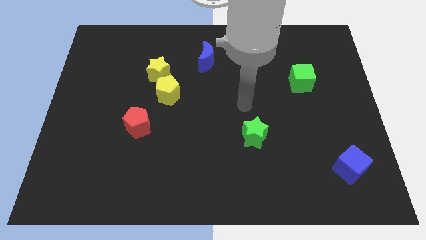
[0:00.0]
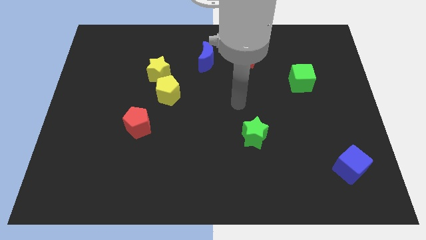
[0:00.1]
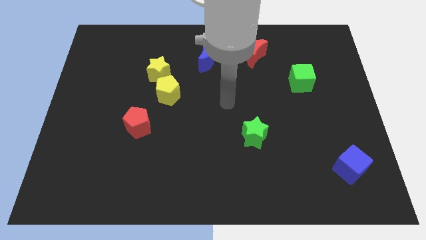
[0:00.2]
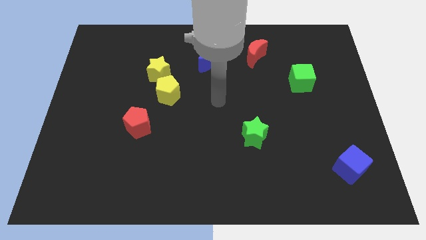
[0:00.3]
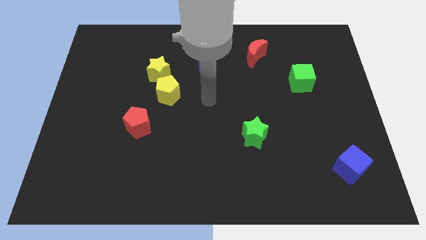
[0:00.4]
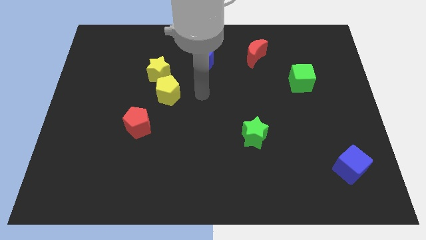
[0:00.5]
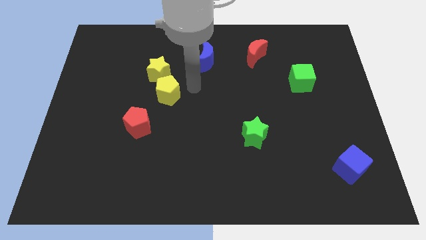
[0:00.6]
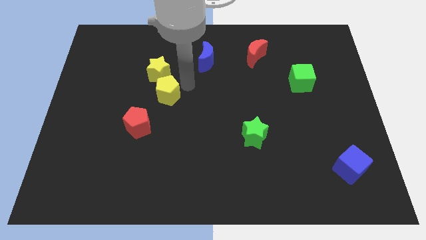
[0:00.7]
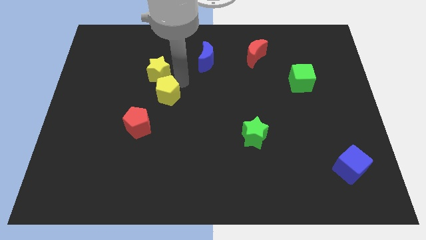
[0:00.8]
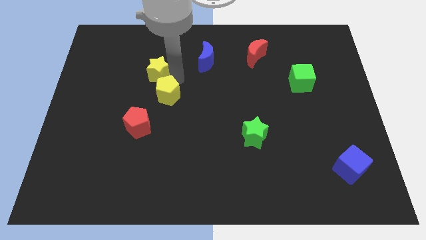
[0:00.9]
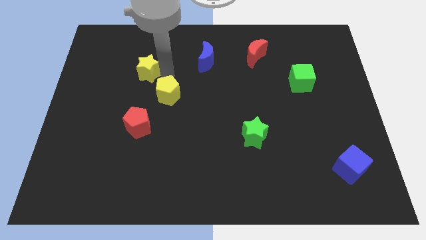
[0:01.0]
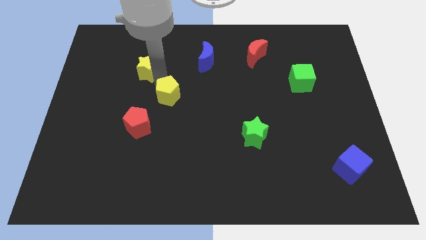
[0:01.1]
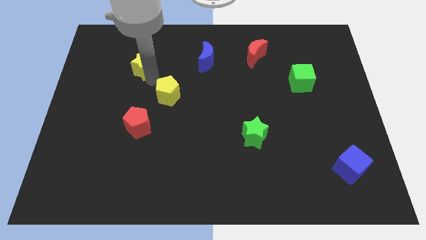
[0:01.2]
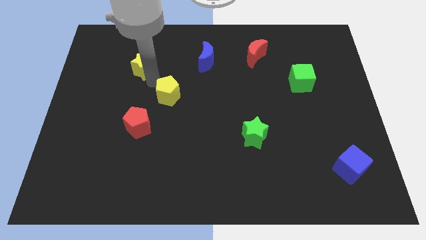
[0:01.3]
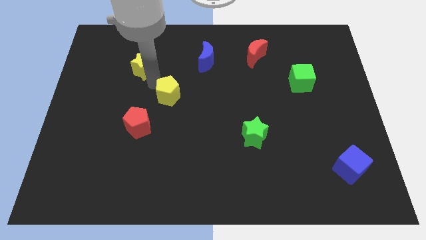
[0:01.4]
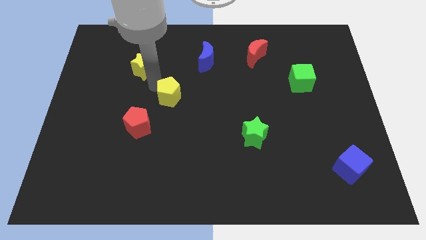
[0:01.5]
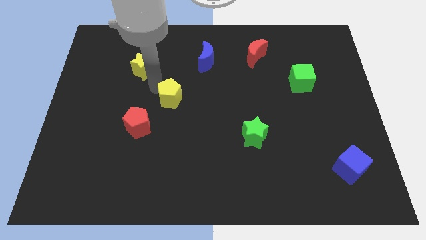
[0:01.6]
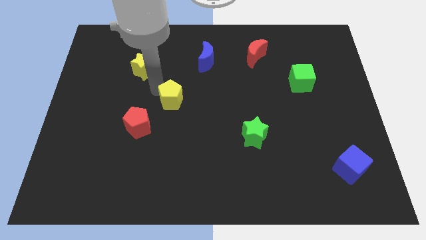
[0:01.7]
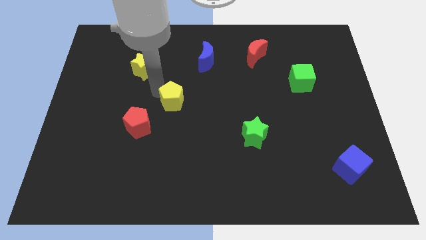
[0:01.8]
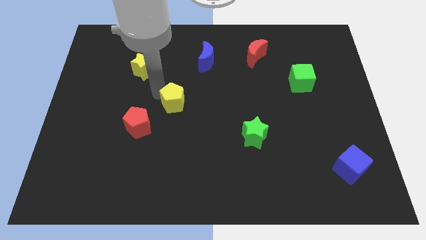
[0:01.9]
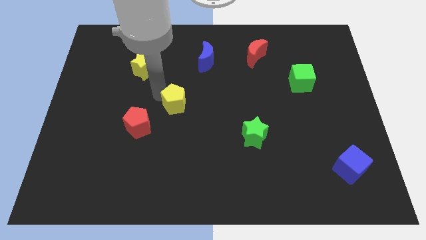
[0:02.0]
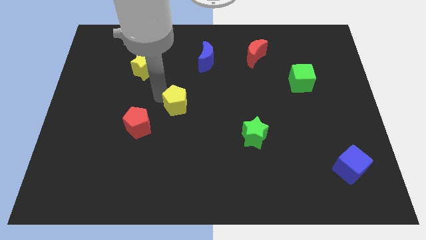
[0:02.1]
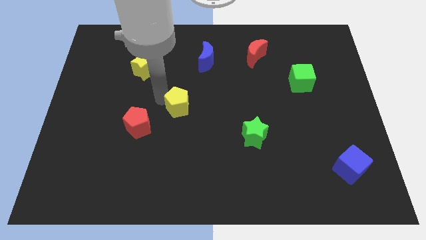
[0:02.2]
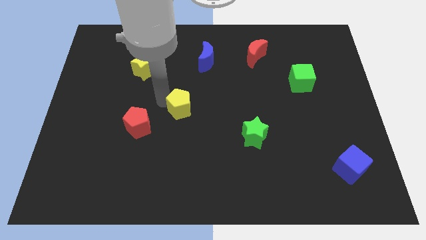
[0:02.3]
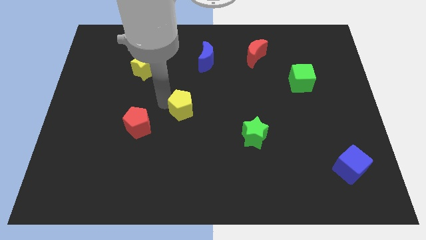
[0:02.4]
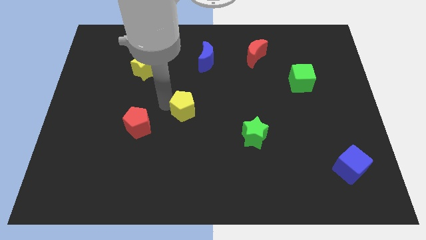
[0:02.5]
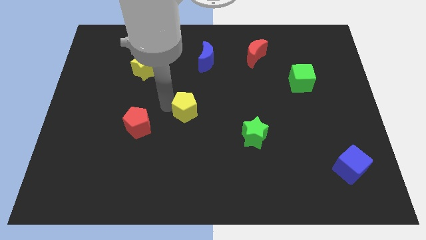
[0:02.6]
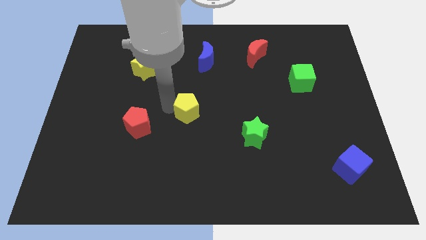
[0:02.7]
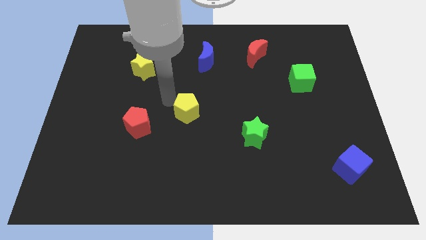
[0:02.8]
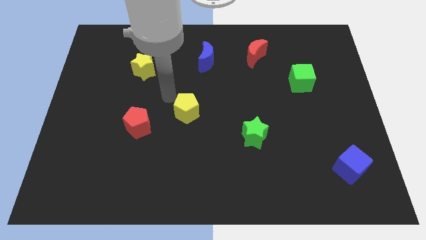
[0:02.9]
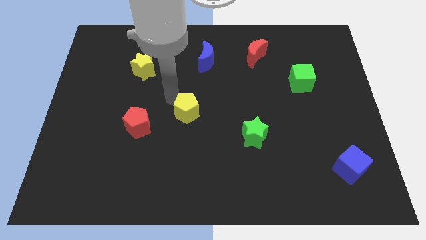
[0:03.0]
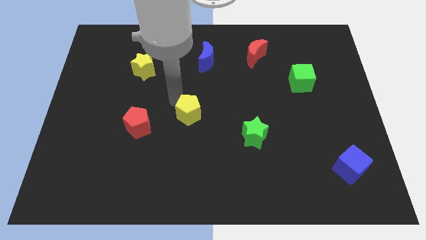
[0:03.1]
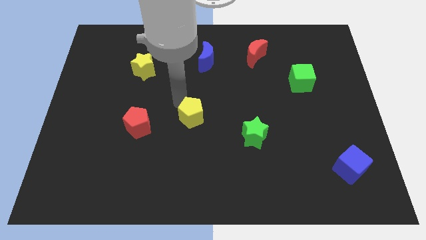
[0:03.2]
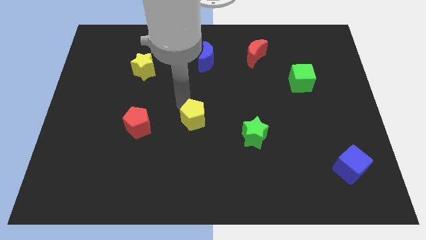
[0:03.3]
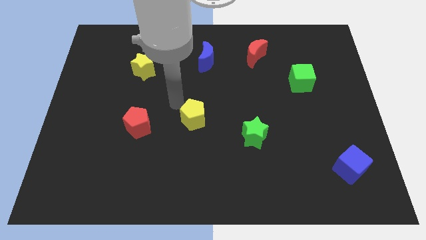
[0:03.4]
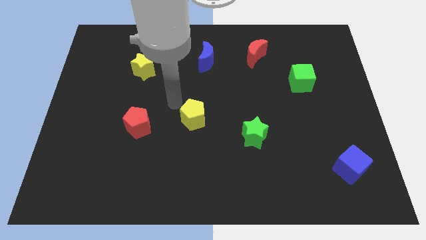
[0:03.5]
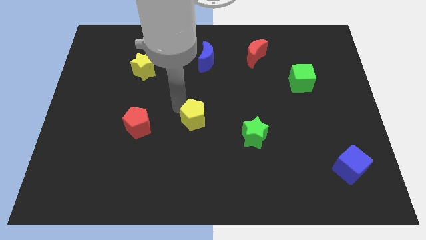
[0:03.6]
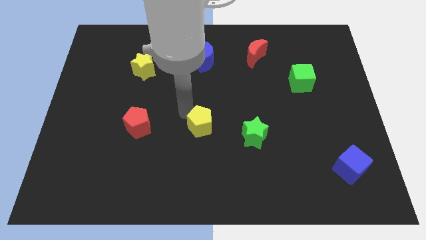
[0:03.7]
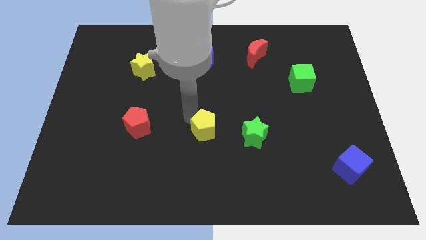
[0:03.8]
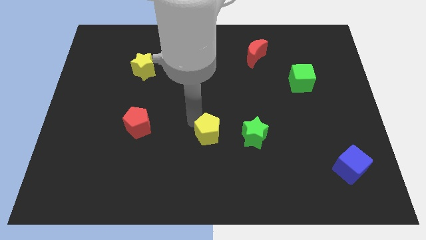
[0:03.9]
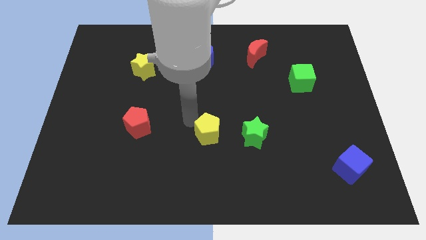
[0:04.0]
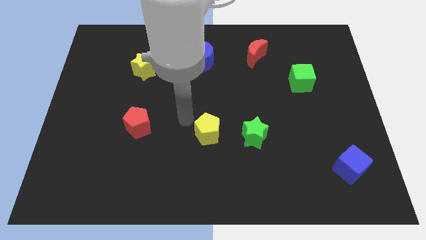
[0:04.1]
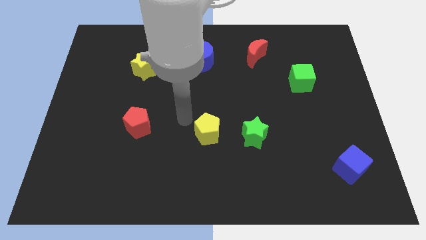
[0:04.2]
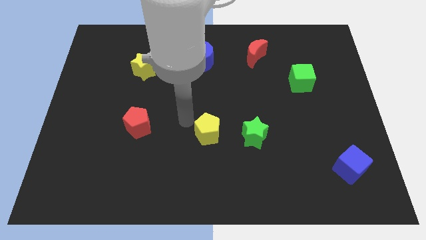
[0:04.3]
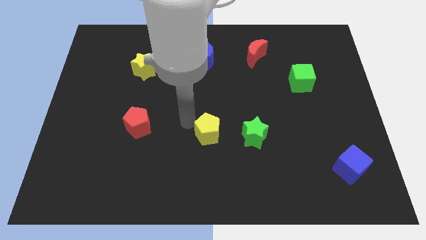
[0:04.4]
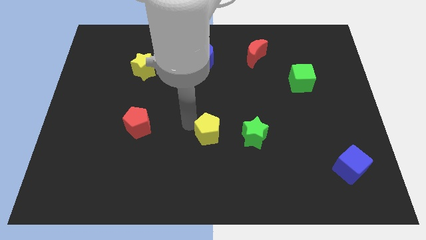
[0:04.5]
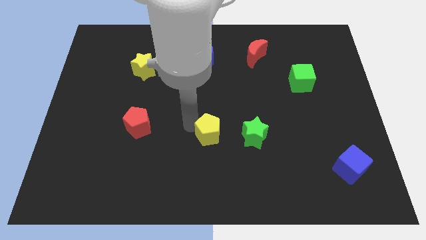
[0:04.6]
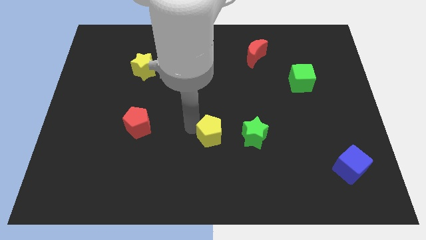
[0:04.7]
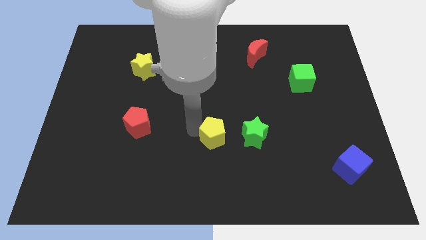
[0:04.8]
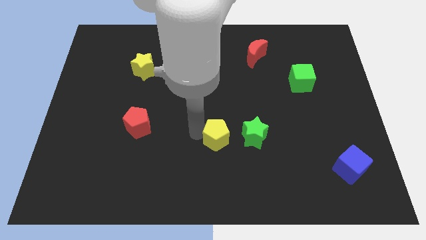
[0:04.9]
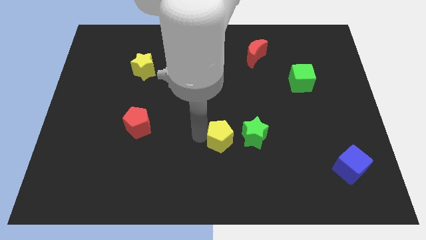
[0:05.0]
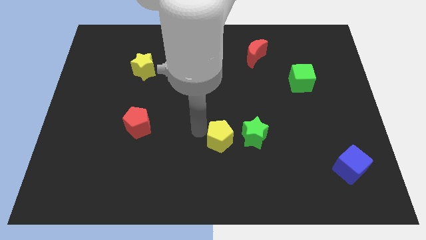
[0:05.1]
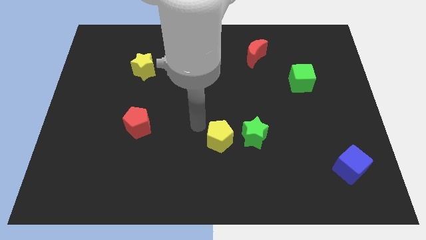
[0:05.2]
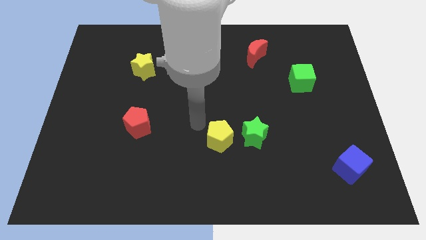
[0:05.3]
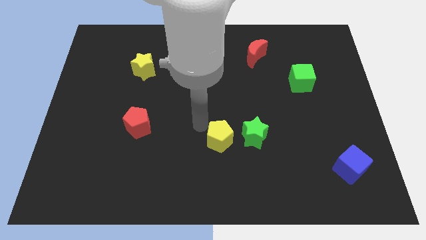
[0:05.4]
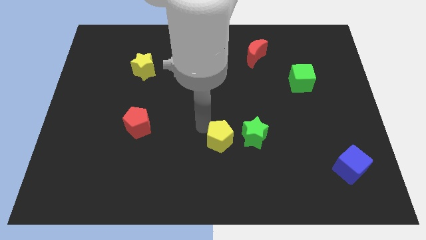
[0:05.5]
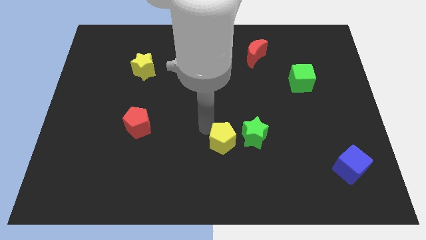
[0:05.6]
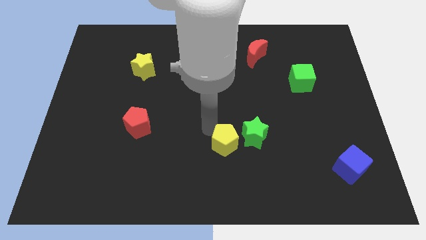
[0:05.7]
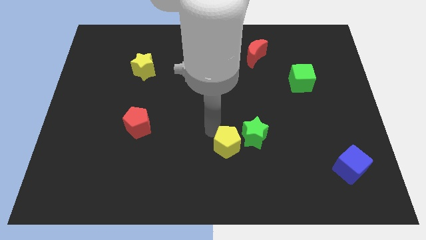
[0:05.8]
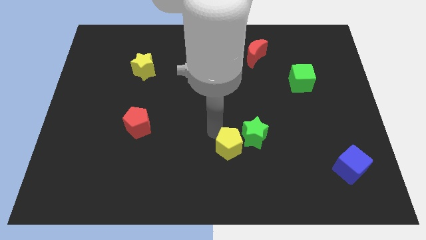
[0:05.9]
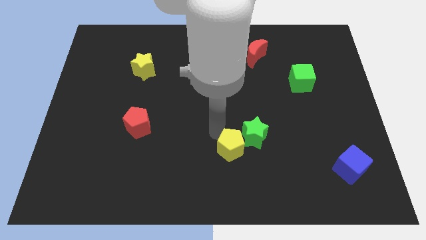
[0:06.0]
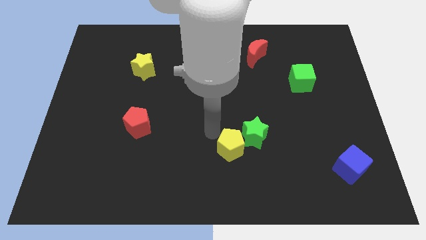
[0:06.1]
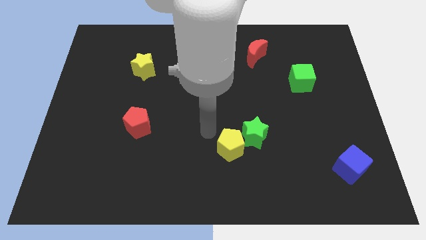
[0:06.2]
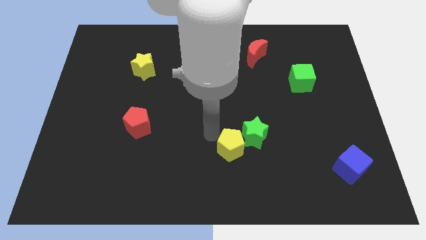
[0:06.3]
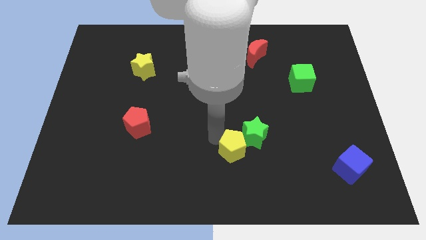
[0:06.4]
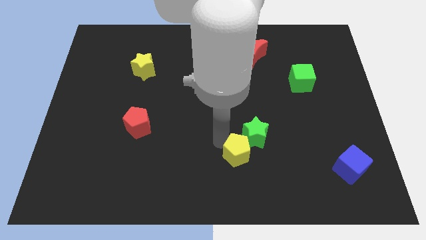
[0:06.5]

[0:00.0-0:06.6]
put the yellow pentagon below the green star

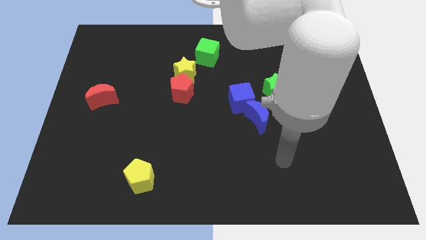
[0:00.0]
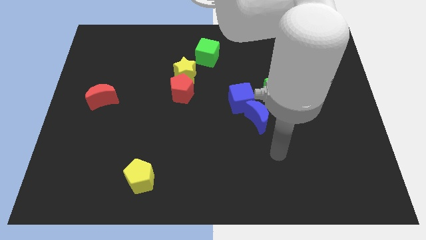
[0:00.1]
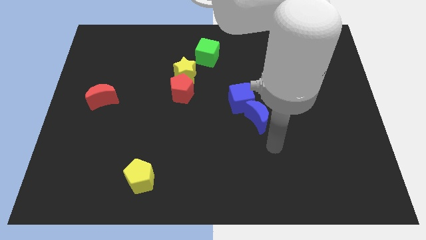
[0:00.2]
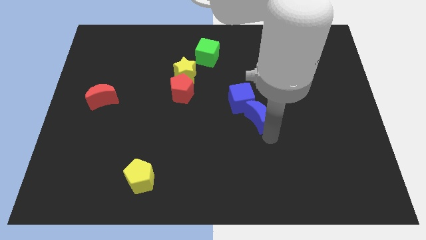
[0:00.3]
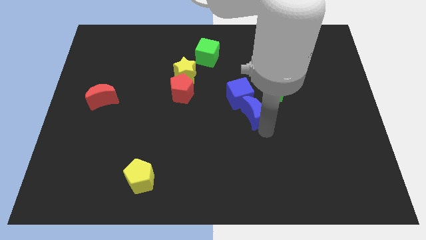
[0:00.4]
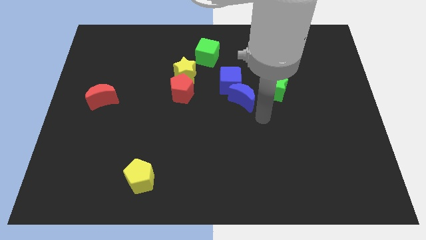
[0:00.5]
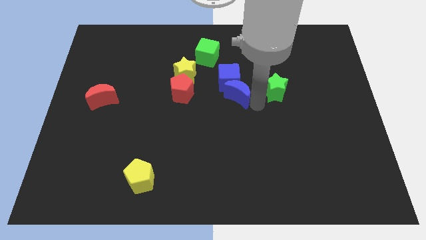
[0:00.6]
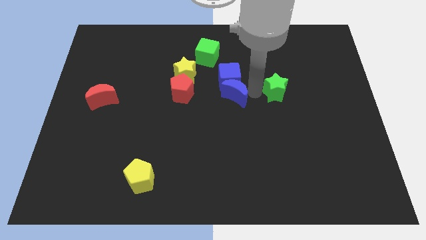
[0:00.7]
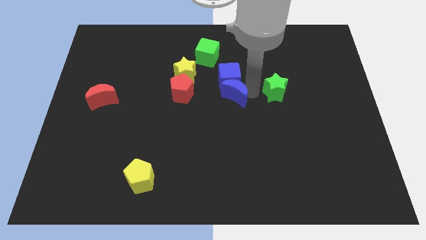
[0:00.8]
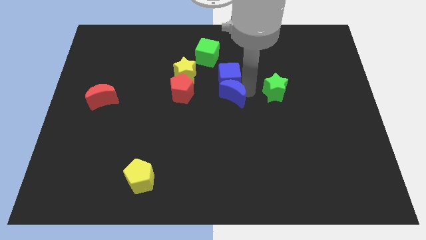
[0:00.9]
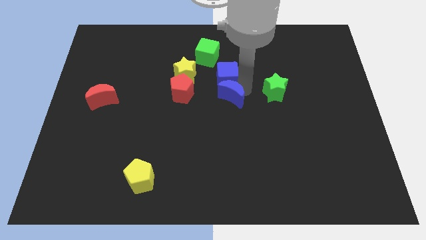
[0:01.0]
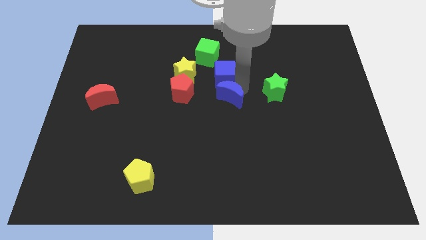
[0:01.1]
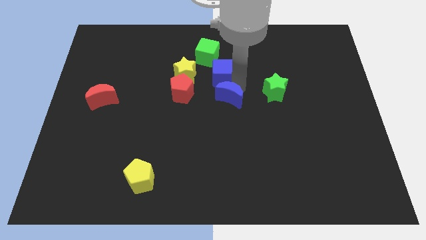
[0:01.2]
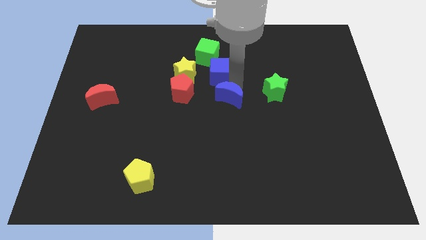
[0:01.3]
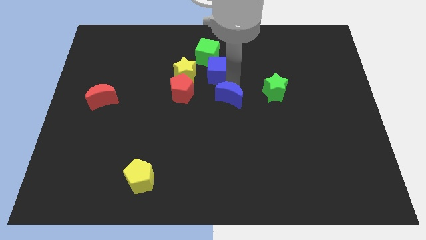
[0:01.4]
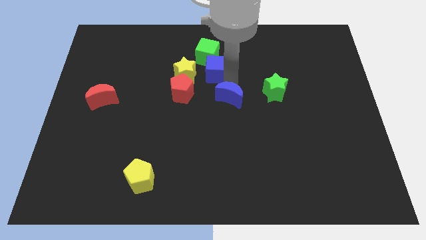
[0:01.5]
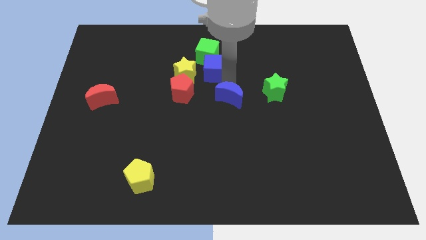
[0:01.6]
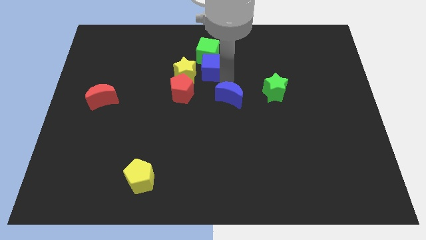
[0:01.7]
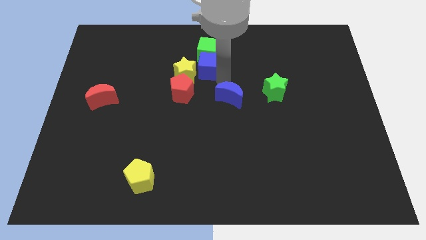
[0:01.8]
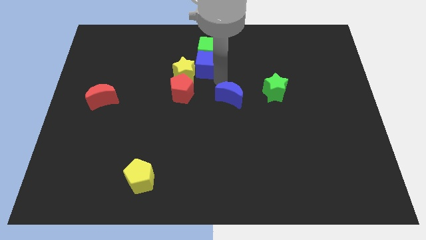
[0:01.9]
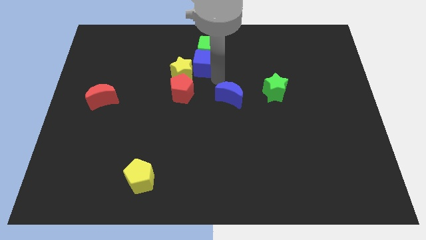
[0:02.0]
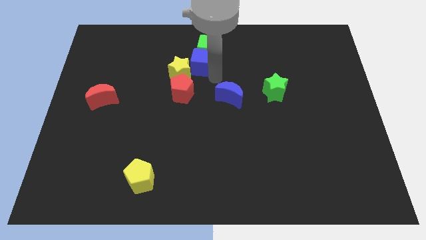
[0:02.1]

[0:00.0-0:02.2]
slide the blue cube to the top side of the red pentagon
